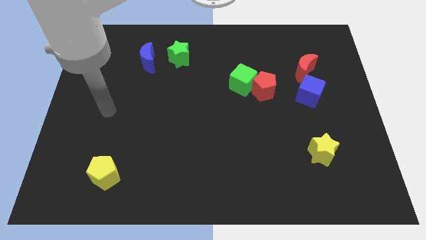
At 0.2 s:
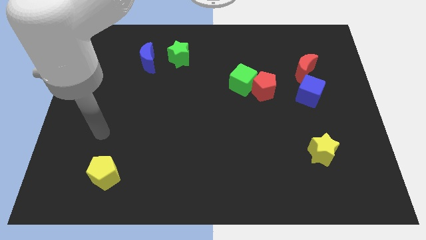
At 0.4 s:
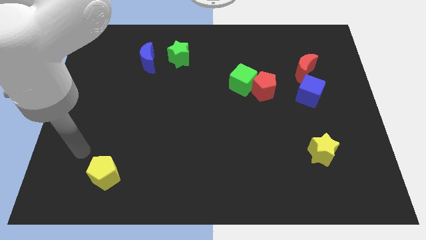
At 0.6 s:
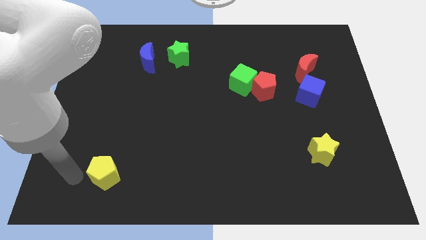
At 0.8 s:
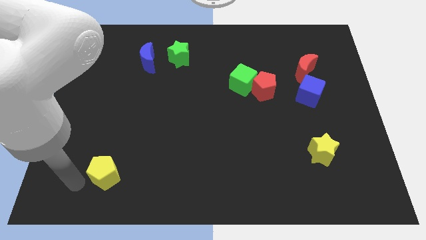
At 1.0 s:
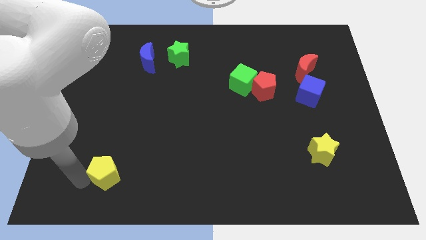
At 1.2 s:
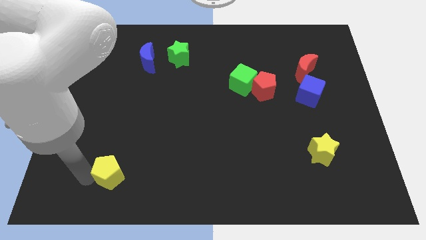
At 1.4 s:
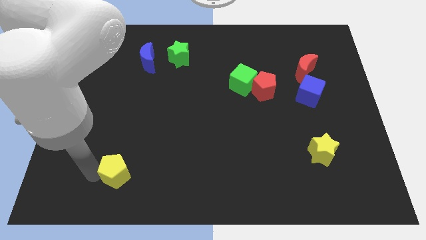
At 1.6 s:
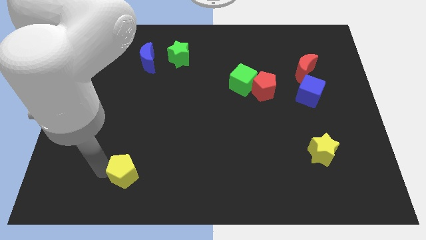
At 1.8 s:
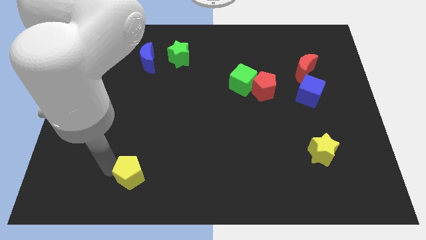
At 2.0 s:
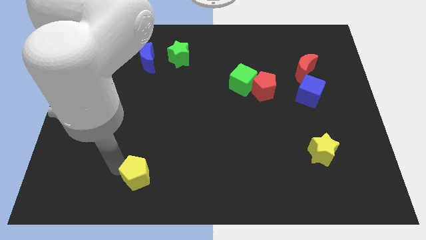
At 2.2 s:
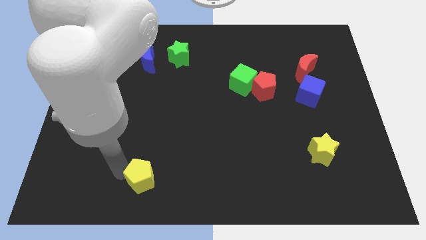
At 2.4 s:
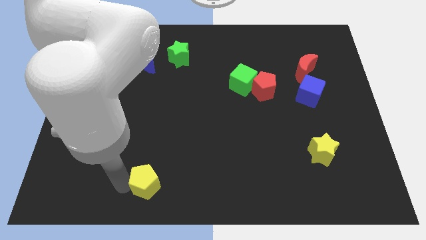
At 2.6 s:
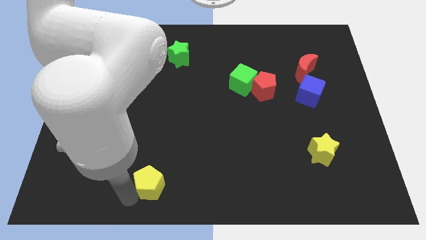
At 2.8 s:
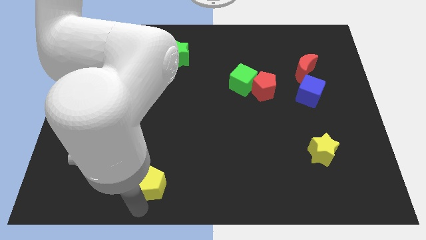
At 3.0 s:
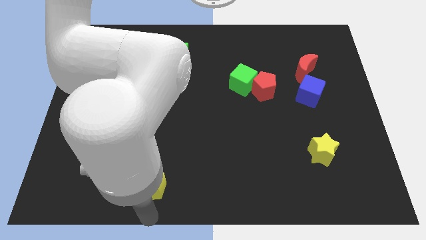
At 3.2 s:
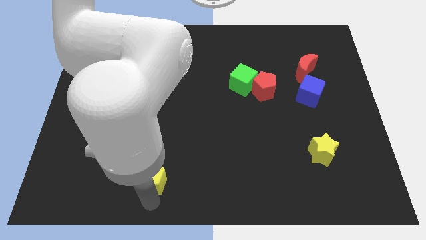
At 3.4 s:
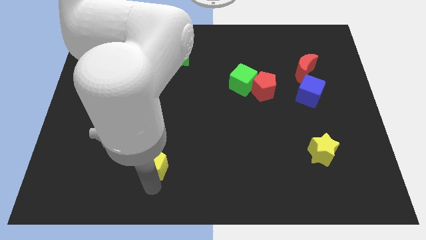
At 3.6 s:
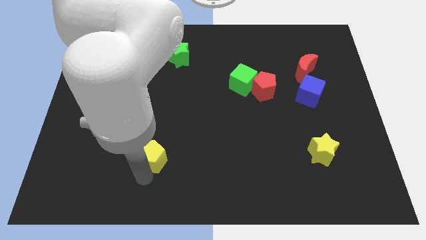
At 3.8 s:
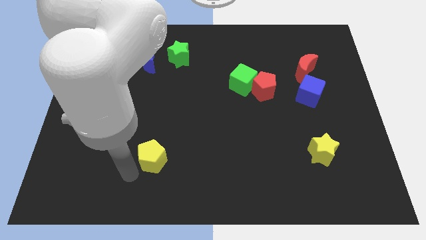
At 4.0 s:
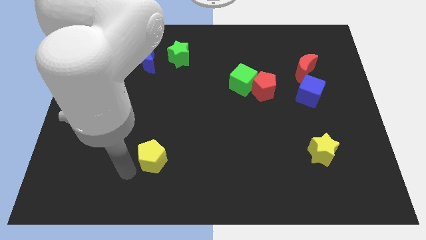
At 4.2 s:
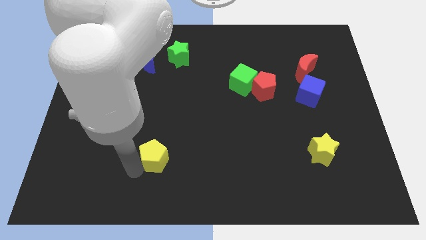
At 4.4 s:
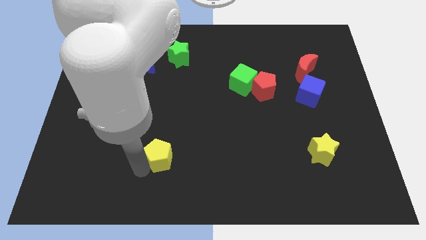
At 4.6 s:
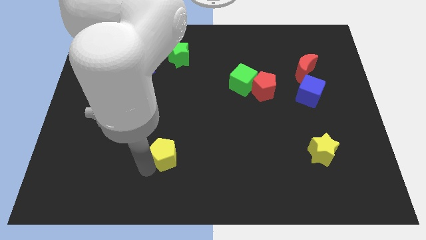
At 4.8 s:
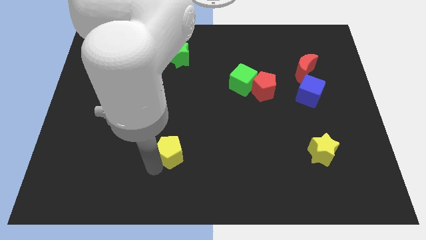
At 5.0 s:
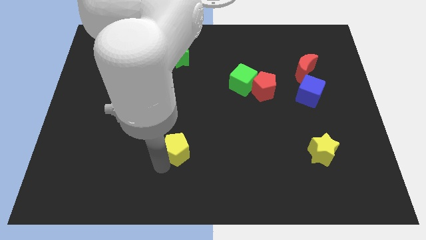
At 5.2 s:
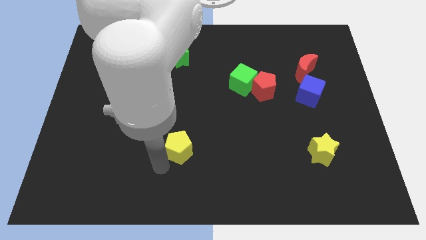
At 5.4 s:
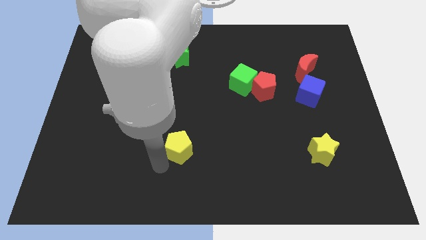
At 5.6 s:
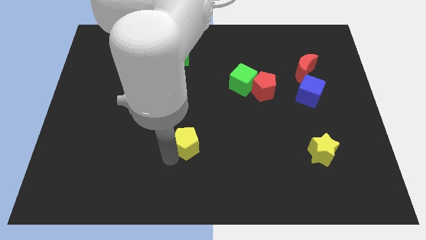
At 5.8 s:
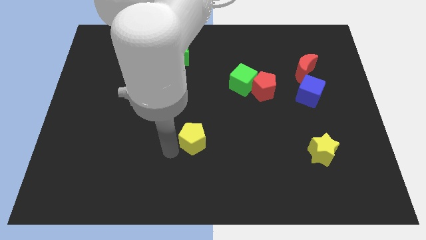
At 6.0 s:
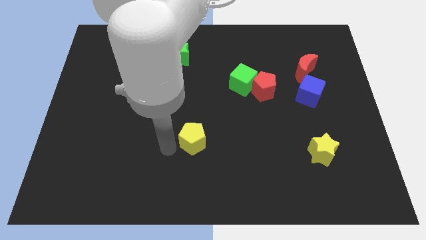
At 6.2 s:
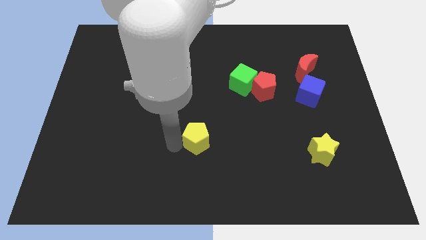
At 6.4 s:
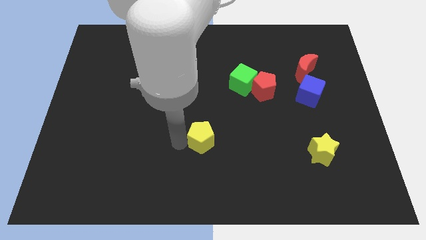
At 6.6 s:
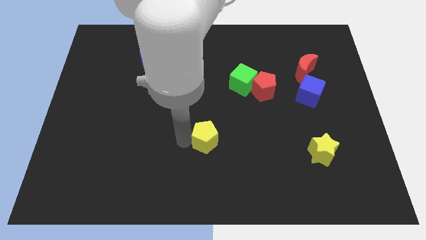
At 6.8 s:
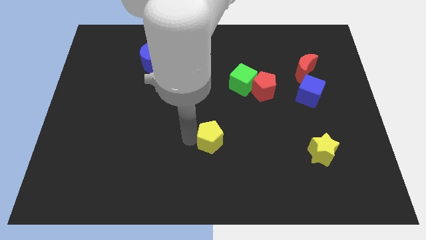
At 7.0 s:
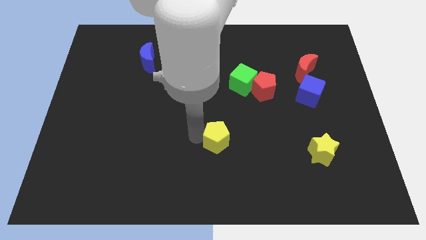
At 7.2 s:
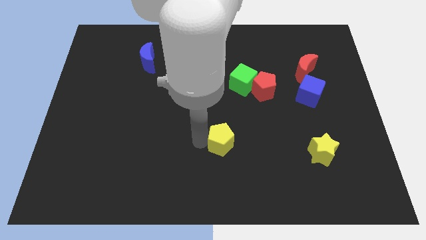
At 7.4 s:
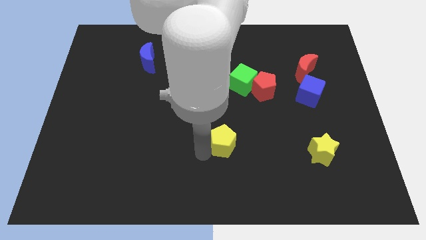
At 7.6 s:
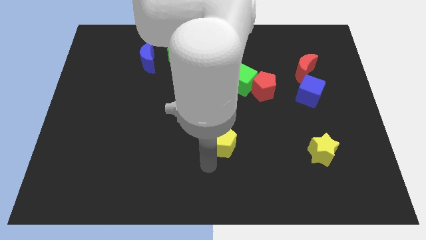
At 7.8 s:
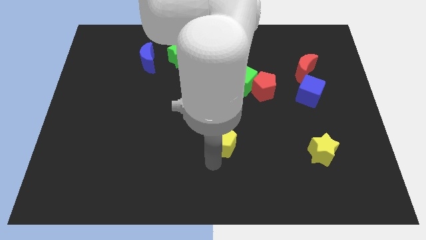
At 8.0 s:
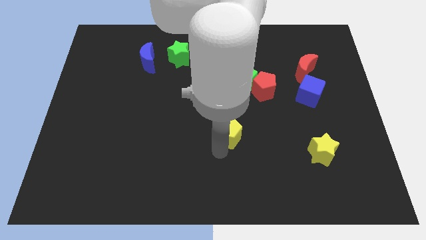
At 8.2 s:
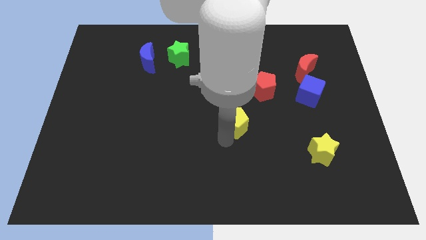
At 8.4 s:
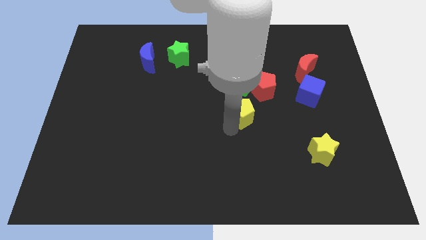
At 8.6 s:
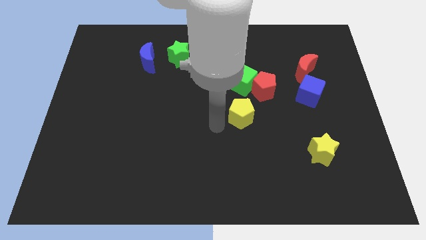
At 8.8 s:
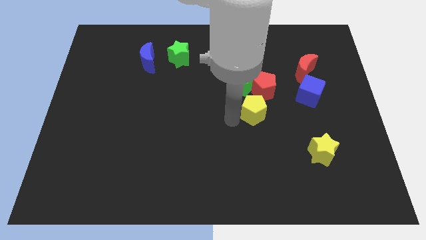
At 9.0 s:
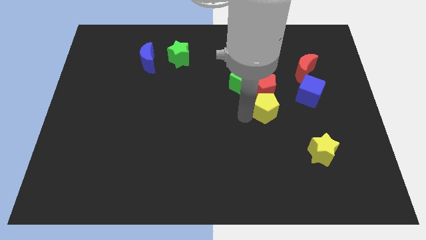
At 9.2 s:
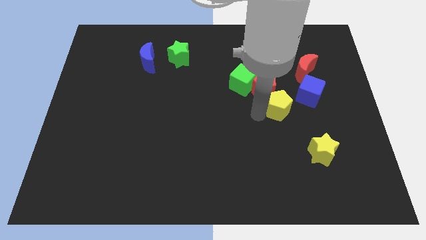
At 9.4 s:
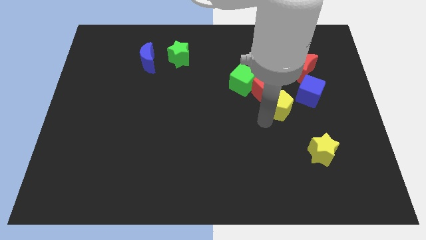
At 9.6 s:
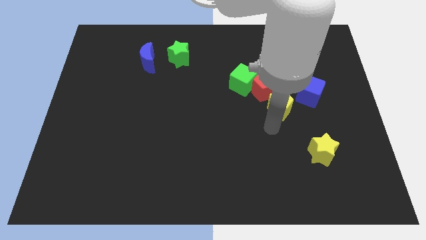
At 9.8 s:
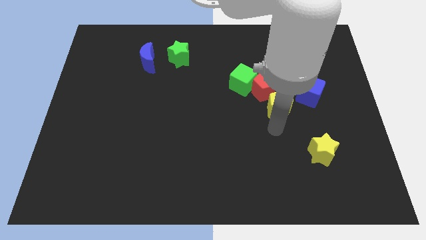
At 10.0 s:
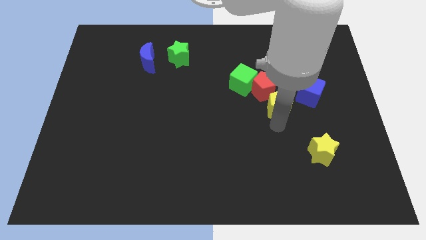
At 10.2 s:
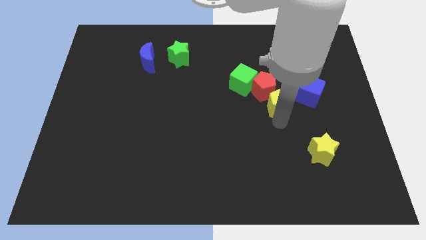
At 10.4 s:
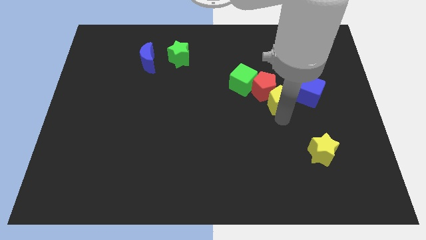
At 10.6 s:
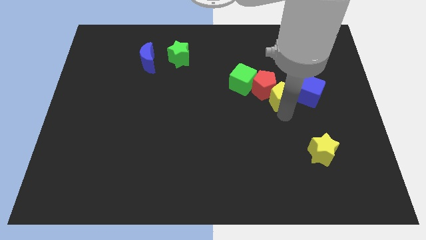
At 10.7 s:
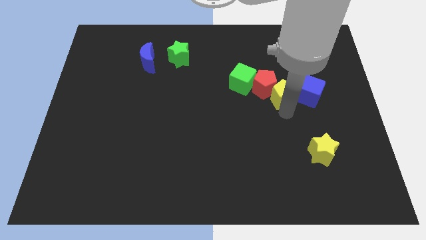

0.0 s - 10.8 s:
slide the yellow pentagon just right of the green cube

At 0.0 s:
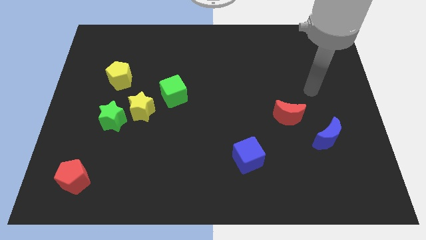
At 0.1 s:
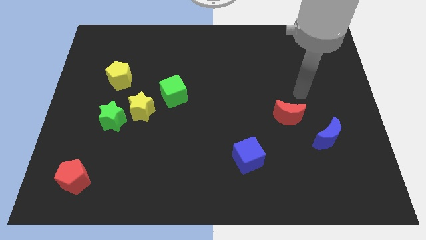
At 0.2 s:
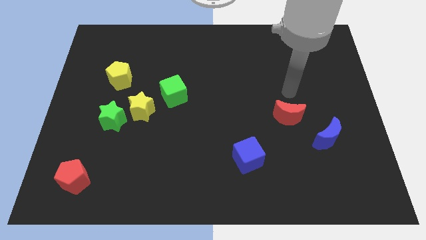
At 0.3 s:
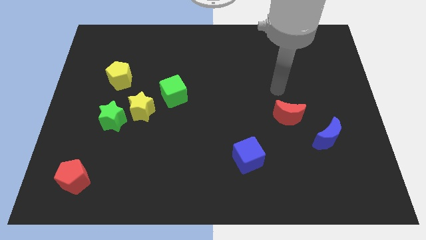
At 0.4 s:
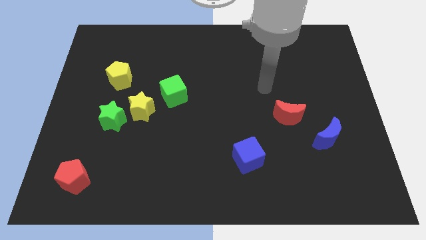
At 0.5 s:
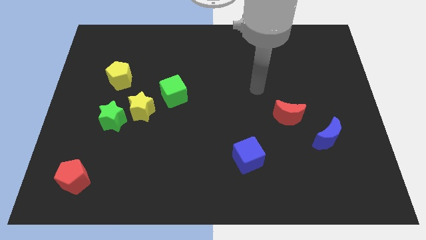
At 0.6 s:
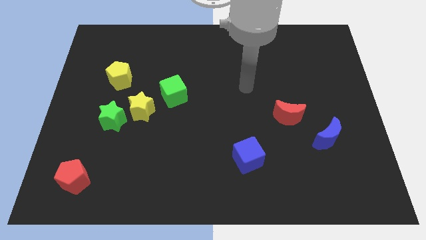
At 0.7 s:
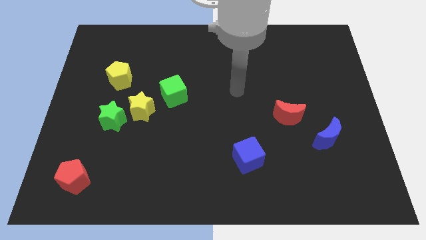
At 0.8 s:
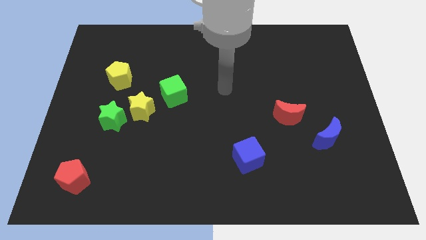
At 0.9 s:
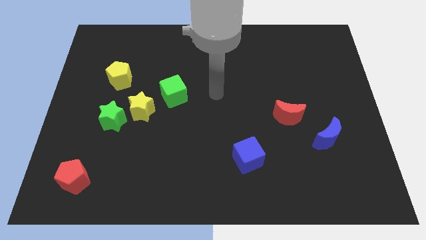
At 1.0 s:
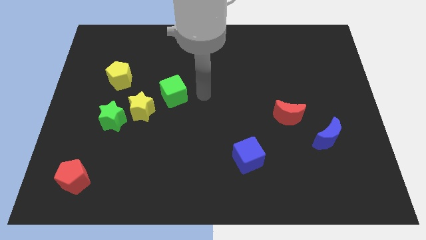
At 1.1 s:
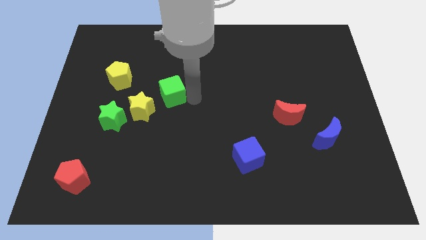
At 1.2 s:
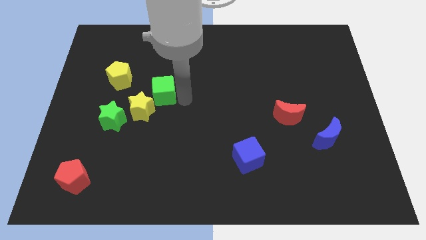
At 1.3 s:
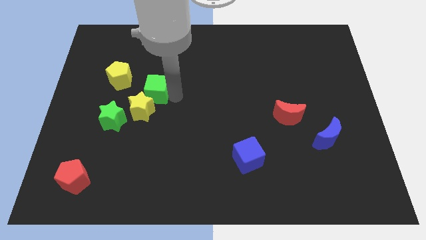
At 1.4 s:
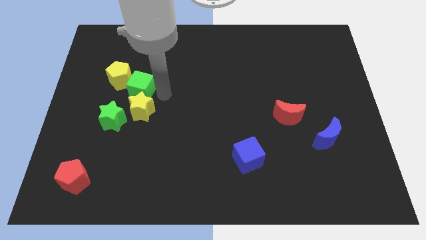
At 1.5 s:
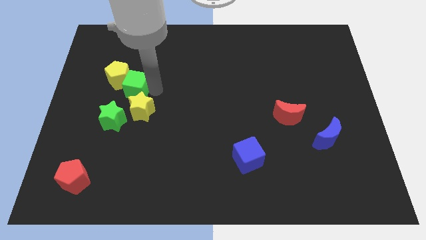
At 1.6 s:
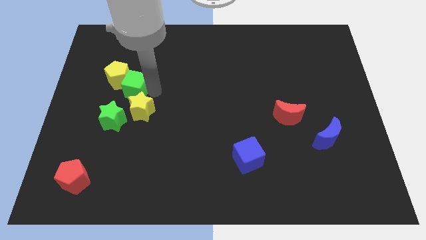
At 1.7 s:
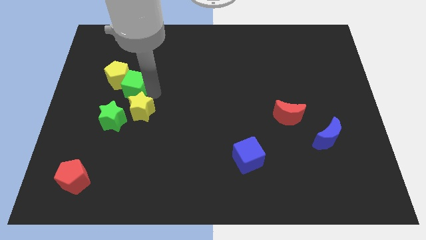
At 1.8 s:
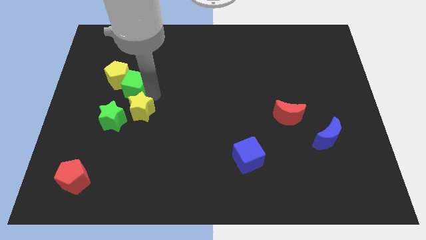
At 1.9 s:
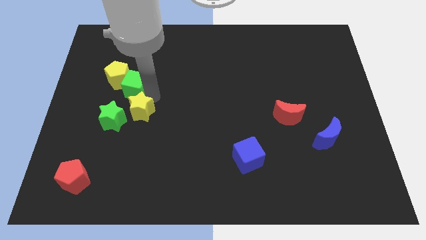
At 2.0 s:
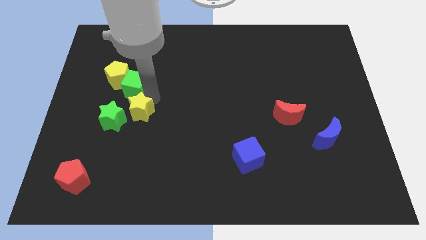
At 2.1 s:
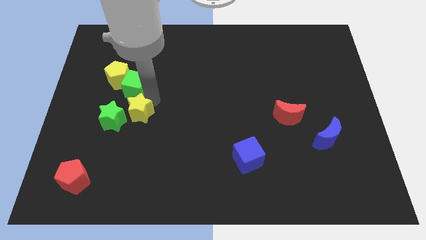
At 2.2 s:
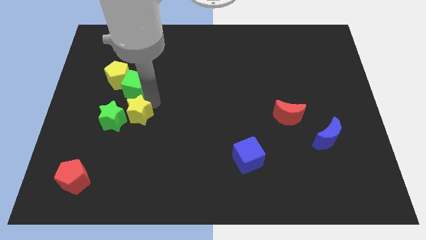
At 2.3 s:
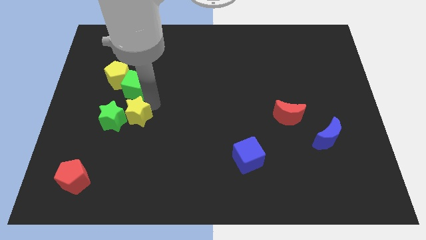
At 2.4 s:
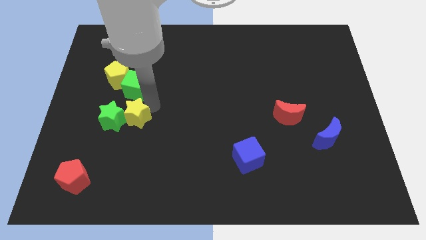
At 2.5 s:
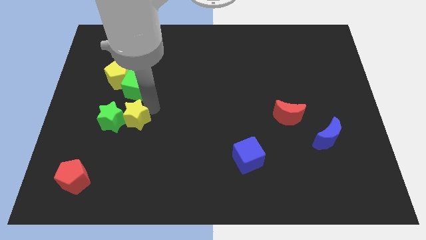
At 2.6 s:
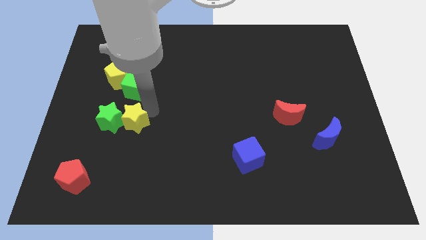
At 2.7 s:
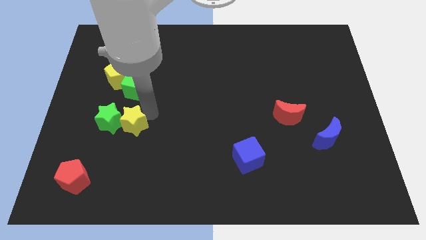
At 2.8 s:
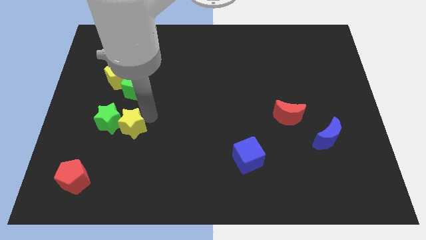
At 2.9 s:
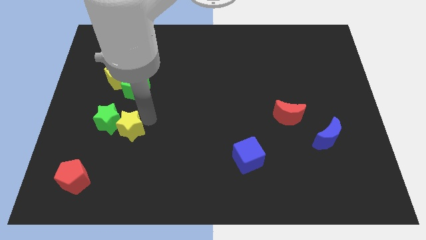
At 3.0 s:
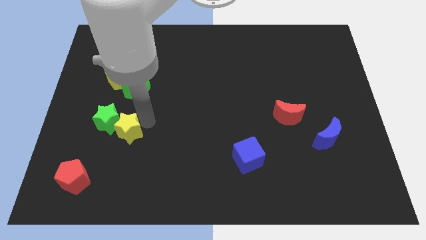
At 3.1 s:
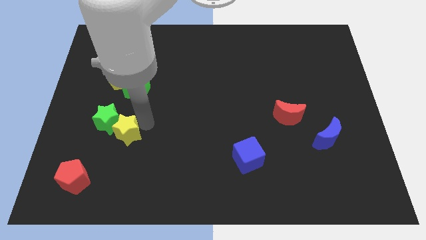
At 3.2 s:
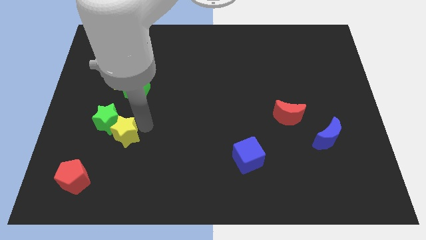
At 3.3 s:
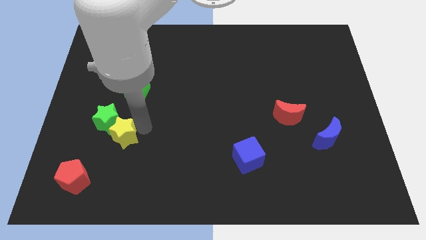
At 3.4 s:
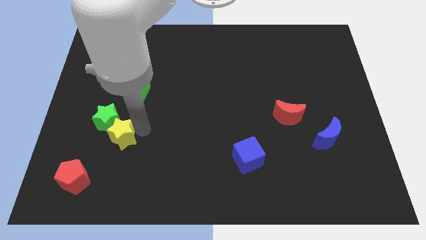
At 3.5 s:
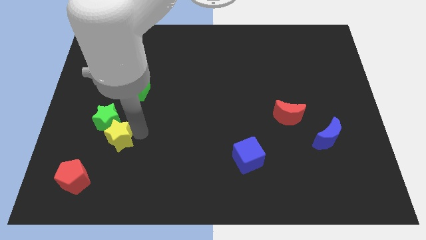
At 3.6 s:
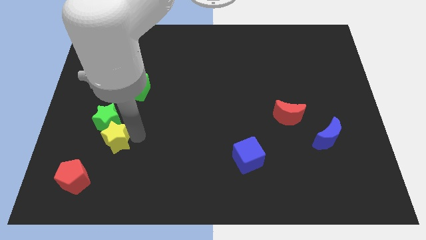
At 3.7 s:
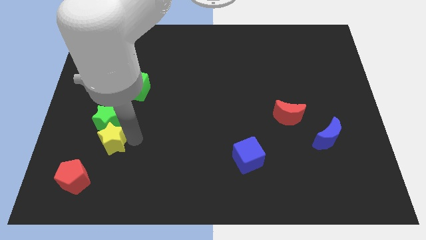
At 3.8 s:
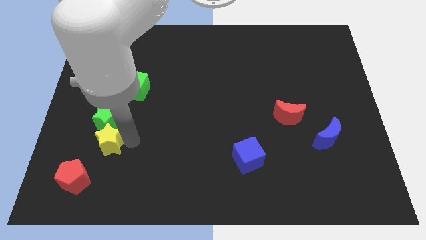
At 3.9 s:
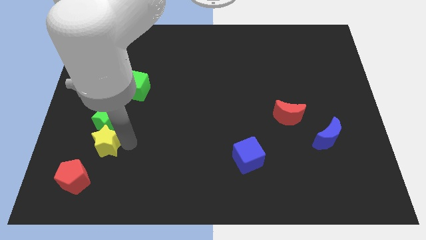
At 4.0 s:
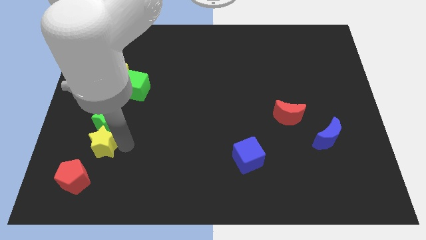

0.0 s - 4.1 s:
push the yellow star to the bottom left of the green star
